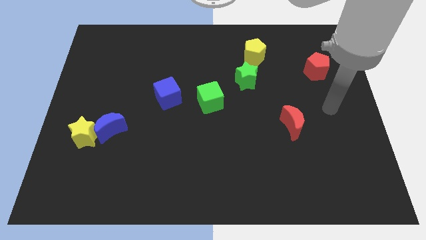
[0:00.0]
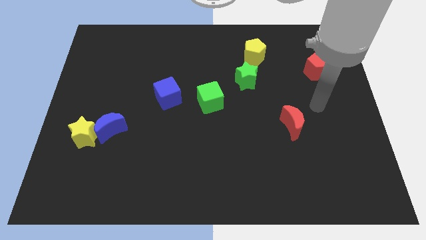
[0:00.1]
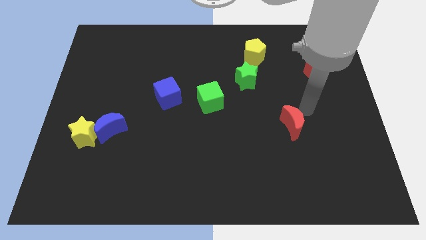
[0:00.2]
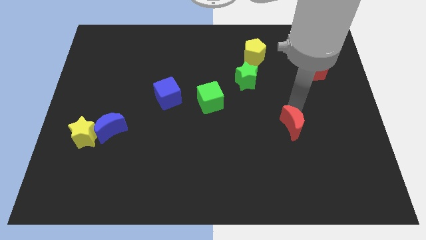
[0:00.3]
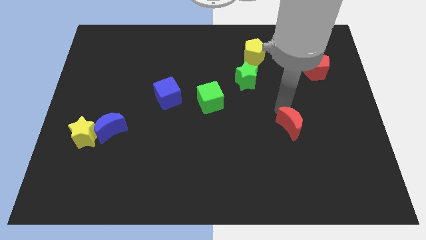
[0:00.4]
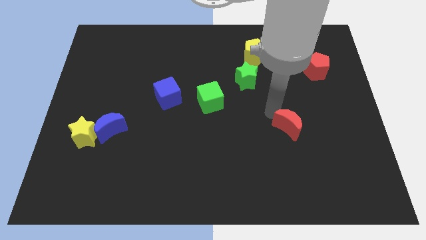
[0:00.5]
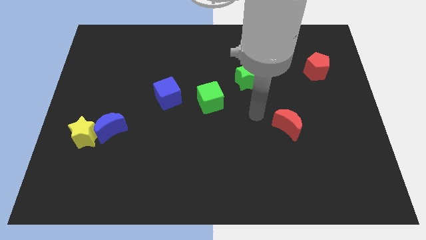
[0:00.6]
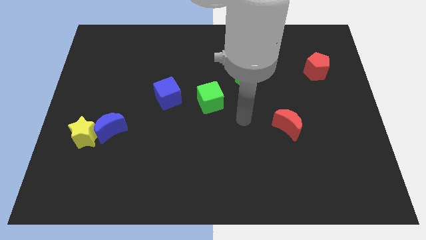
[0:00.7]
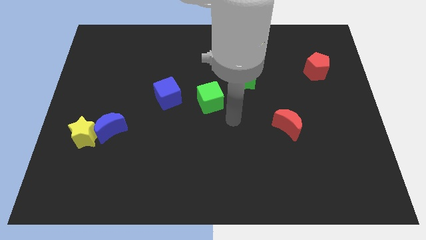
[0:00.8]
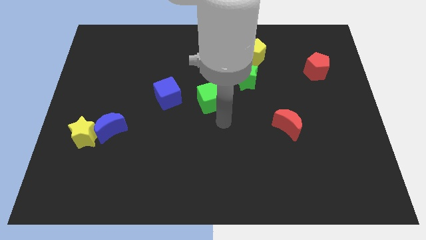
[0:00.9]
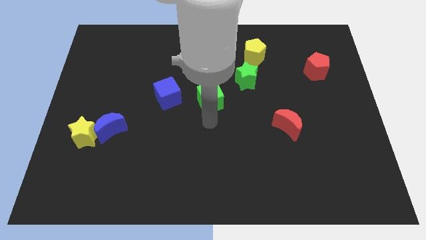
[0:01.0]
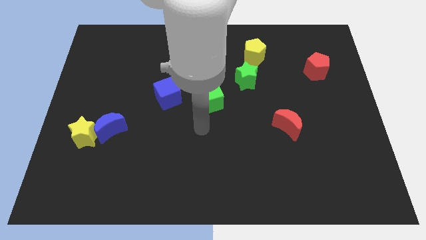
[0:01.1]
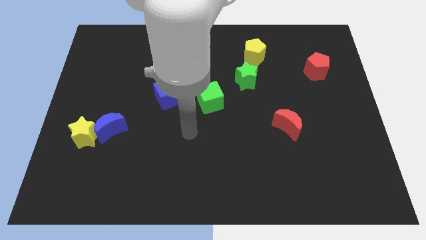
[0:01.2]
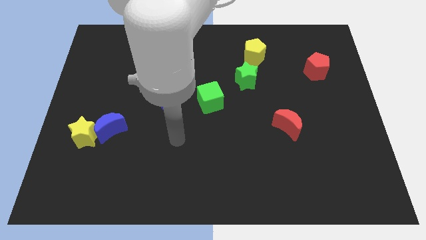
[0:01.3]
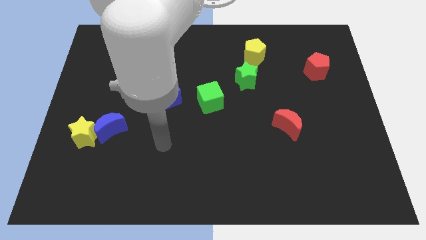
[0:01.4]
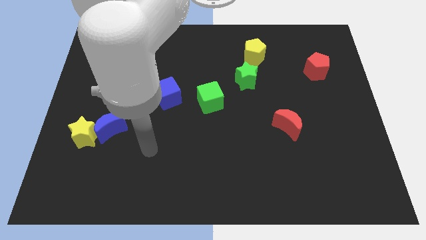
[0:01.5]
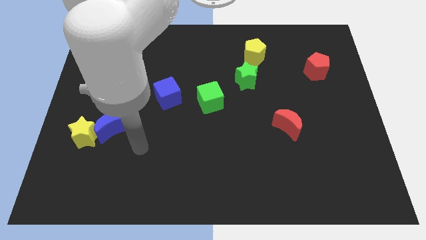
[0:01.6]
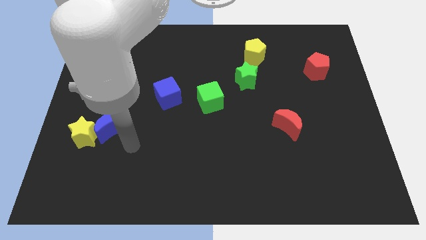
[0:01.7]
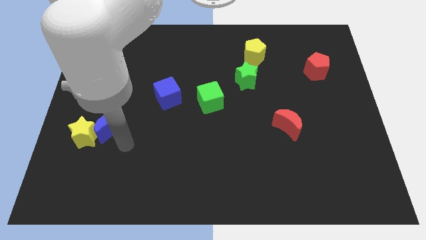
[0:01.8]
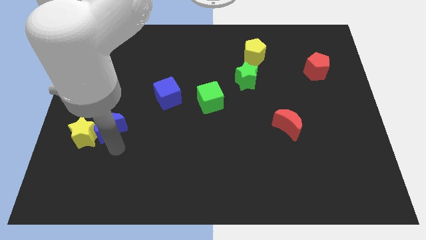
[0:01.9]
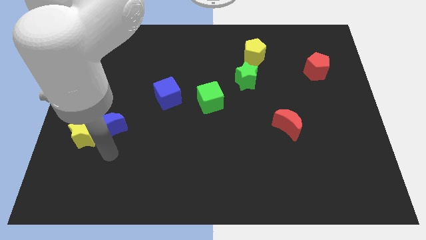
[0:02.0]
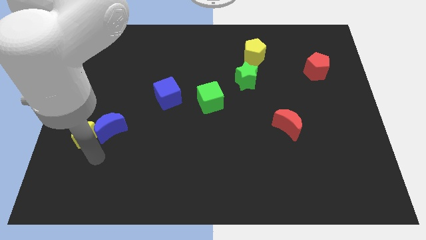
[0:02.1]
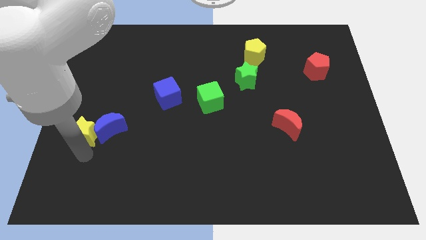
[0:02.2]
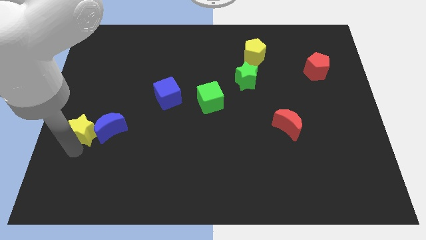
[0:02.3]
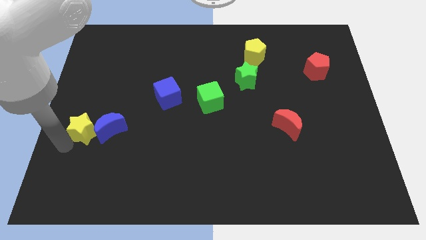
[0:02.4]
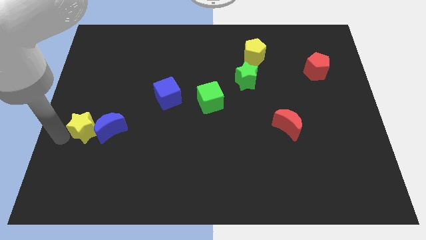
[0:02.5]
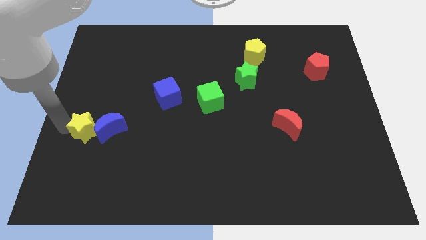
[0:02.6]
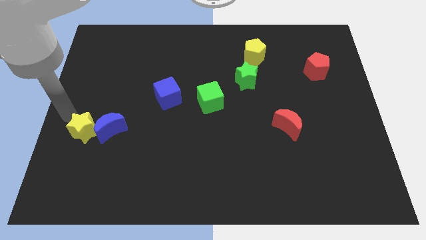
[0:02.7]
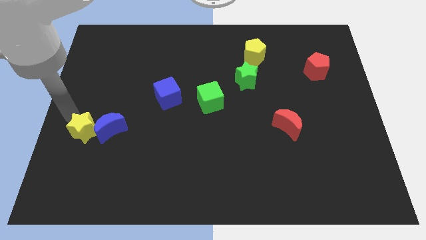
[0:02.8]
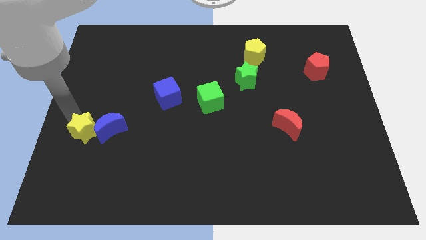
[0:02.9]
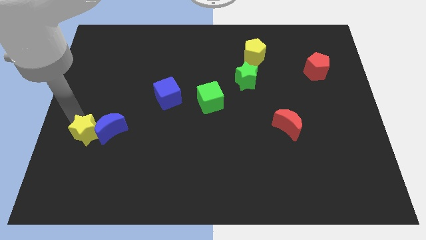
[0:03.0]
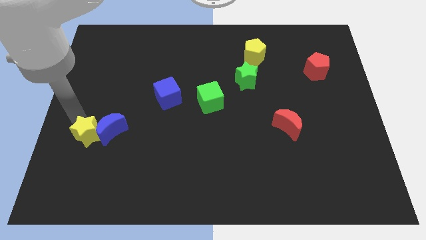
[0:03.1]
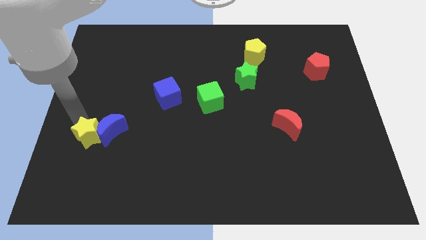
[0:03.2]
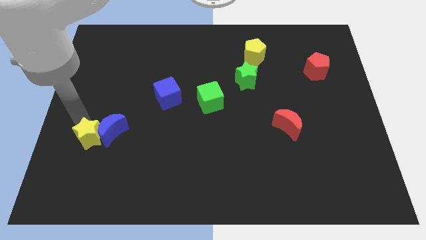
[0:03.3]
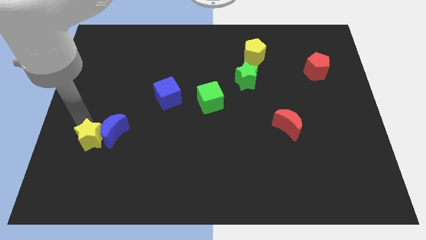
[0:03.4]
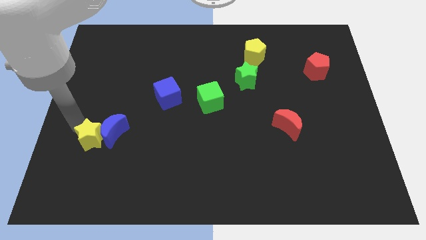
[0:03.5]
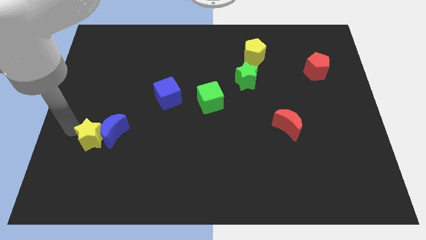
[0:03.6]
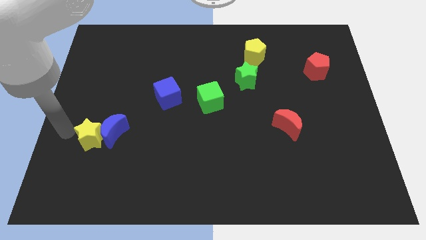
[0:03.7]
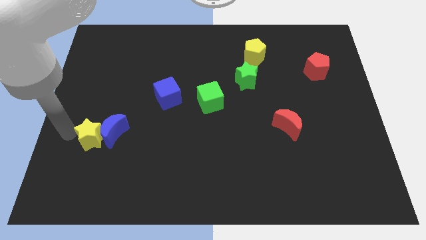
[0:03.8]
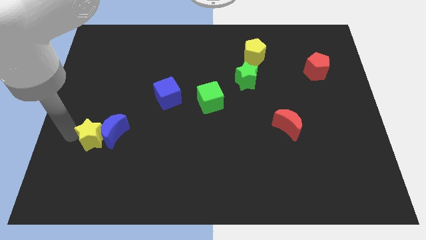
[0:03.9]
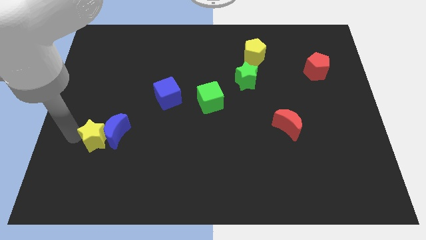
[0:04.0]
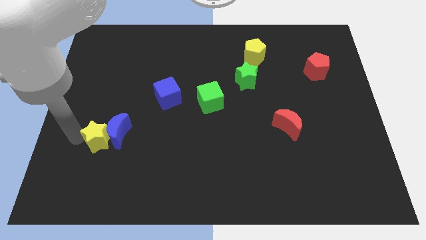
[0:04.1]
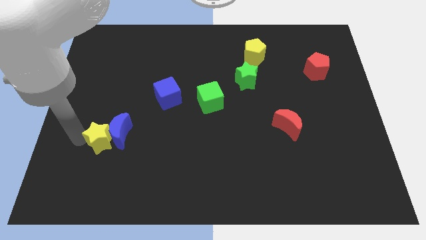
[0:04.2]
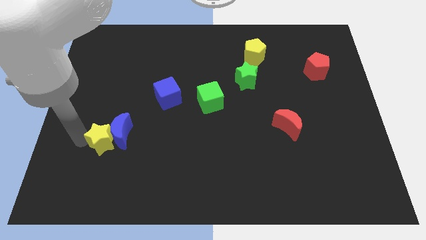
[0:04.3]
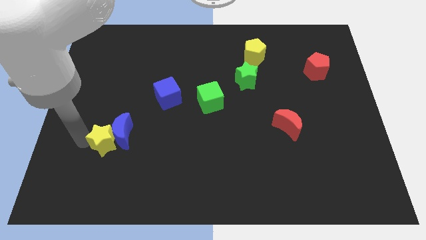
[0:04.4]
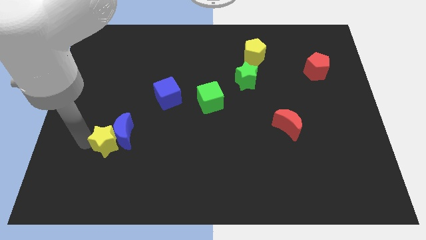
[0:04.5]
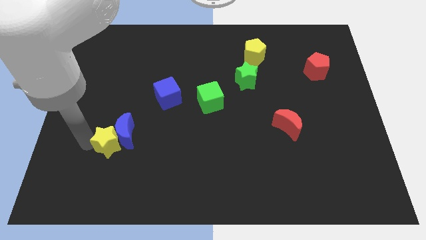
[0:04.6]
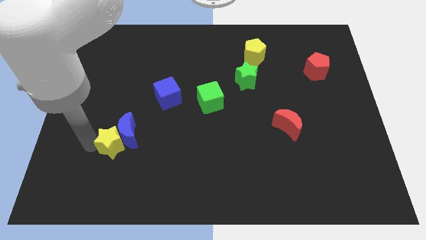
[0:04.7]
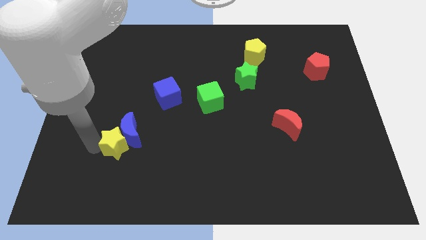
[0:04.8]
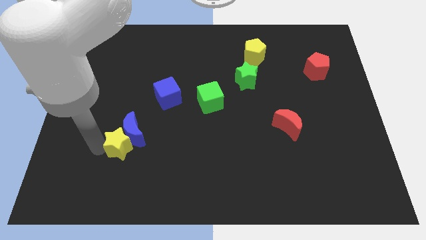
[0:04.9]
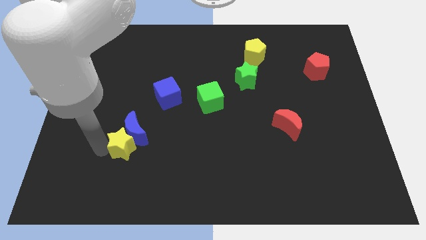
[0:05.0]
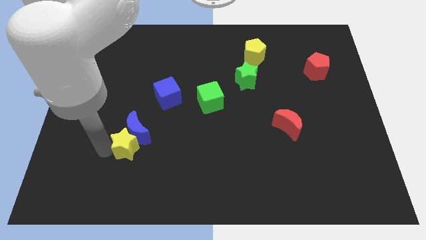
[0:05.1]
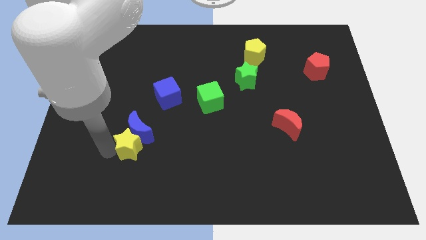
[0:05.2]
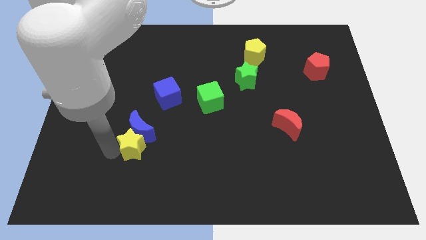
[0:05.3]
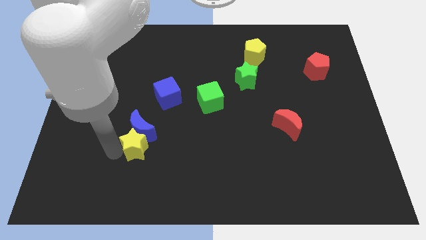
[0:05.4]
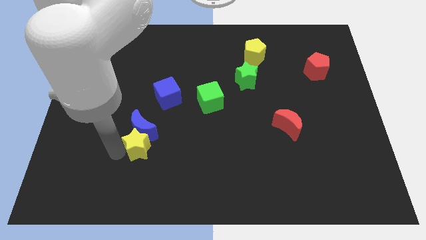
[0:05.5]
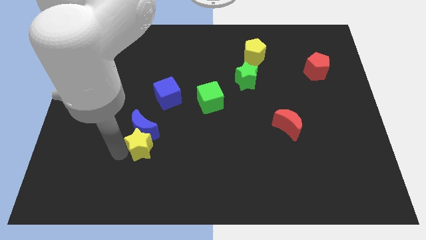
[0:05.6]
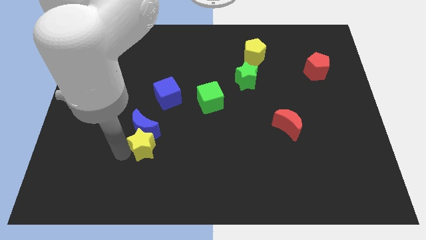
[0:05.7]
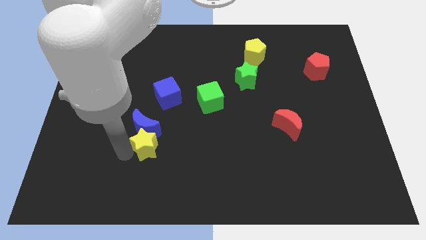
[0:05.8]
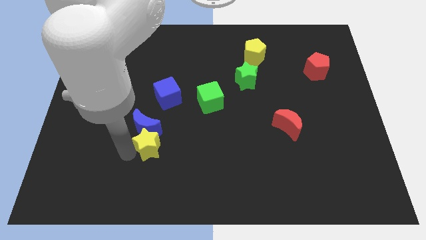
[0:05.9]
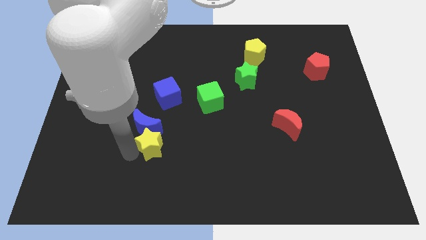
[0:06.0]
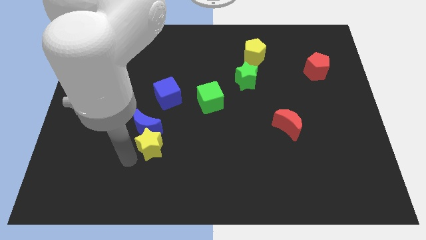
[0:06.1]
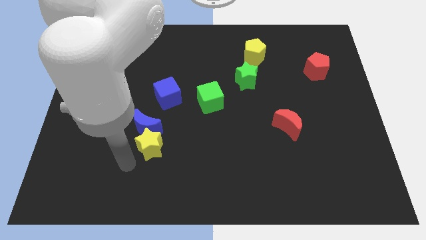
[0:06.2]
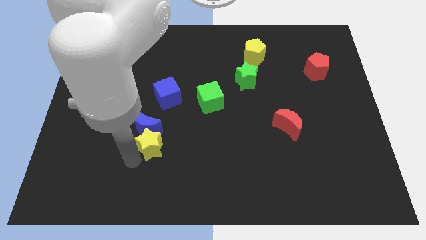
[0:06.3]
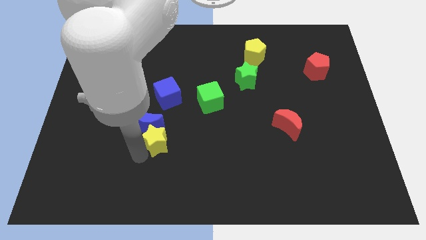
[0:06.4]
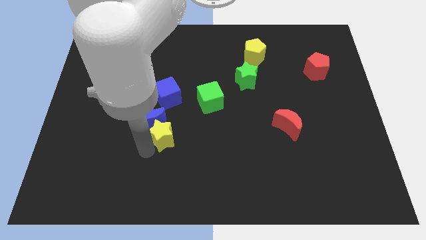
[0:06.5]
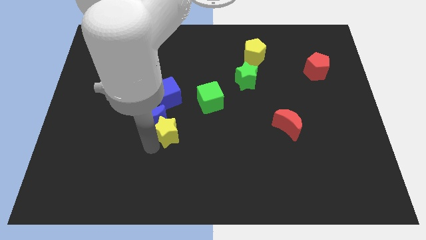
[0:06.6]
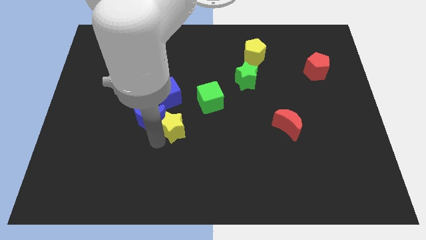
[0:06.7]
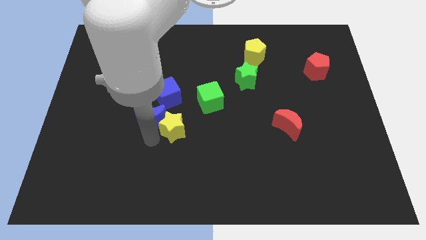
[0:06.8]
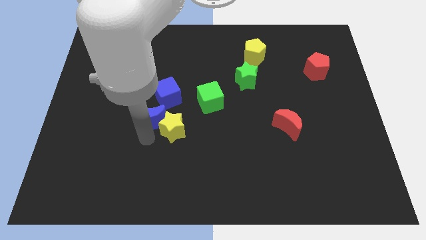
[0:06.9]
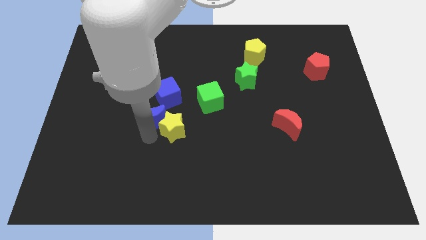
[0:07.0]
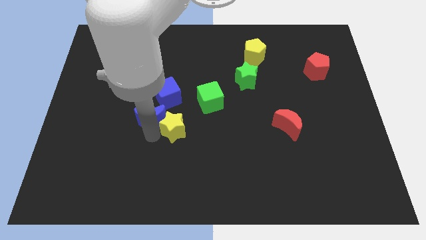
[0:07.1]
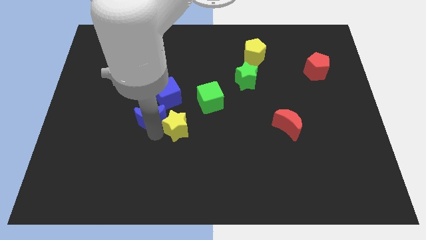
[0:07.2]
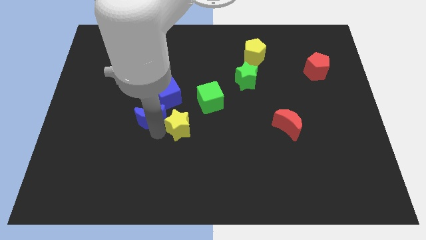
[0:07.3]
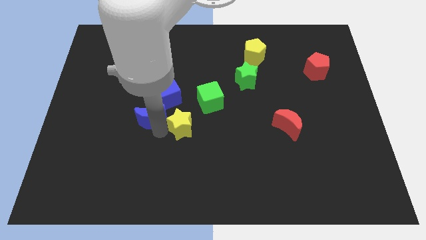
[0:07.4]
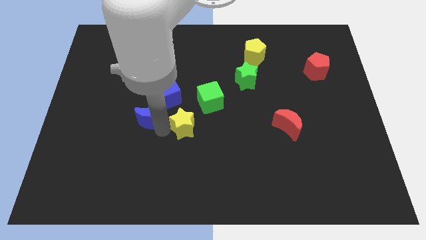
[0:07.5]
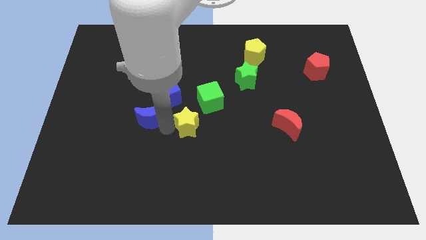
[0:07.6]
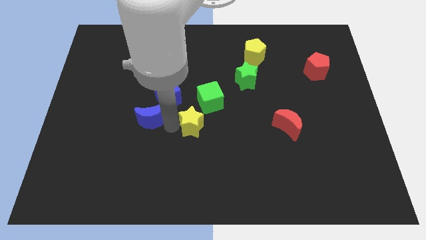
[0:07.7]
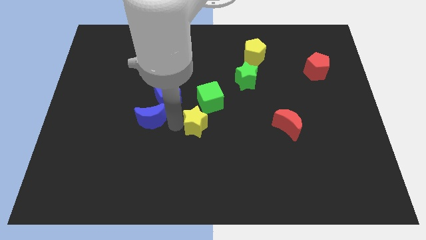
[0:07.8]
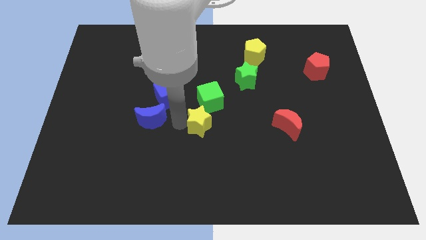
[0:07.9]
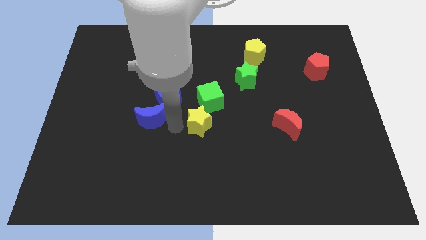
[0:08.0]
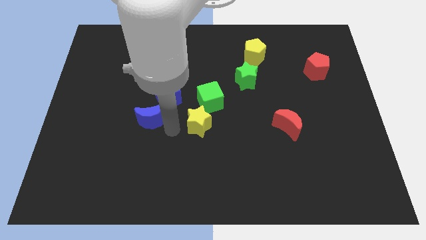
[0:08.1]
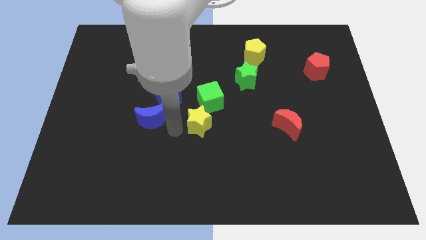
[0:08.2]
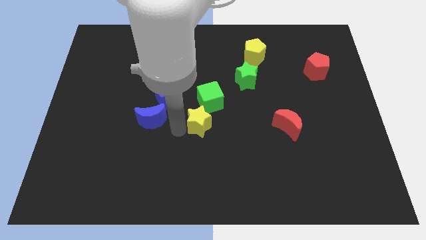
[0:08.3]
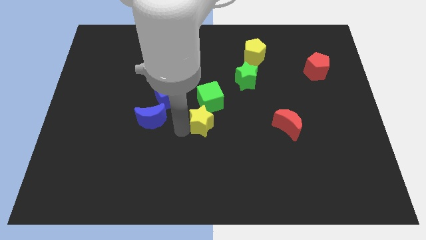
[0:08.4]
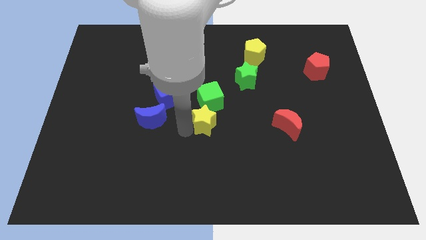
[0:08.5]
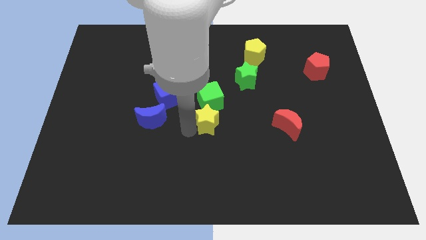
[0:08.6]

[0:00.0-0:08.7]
slide the yellow star to the bottom right of the green cube
